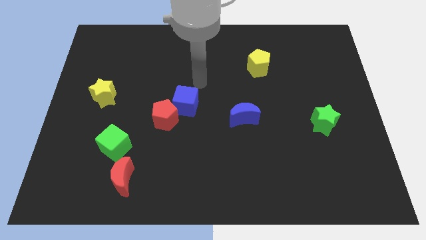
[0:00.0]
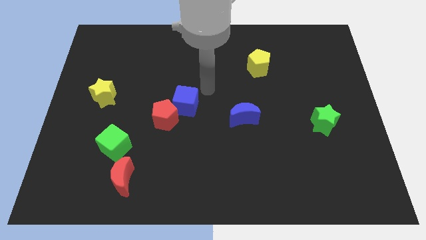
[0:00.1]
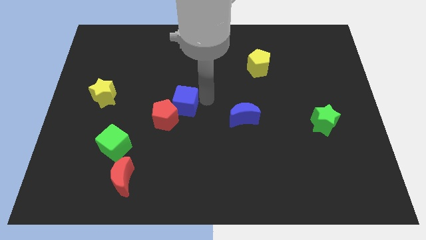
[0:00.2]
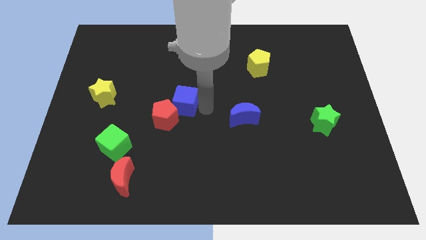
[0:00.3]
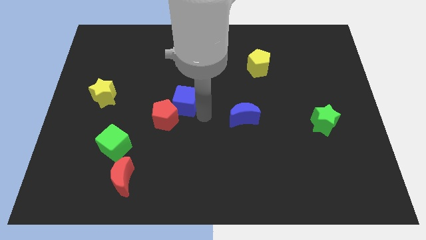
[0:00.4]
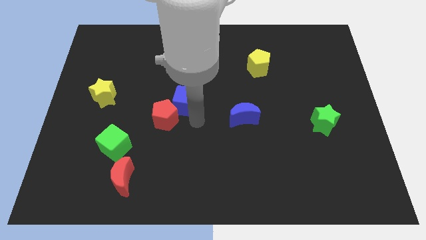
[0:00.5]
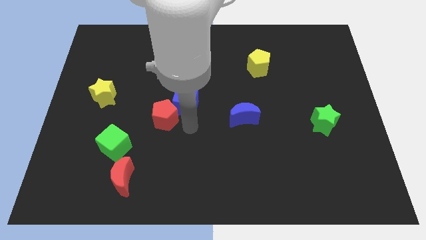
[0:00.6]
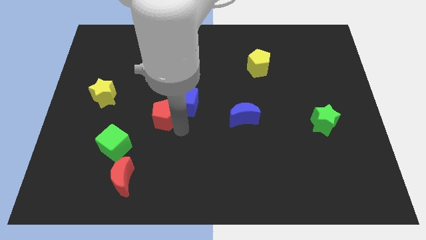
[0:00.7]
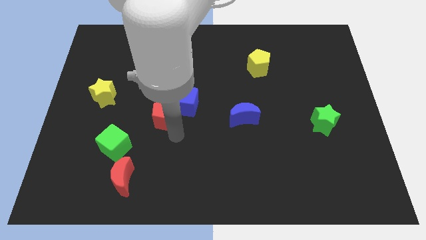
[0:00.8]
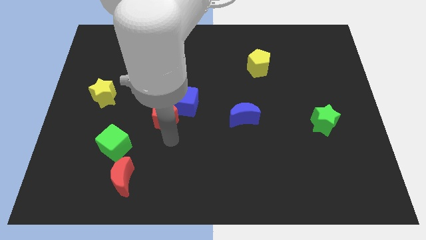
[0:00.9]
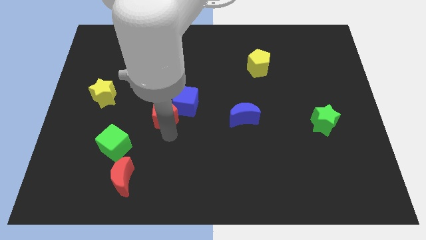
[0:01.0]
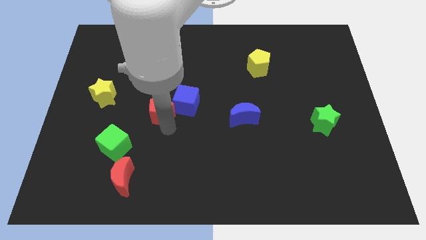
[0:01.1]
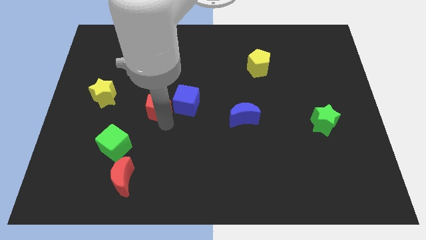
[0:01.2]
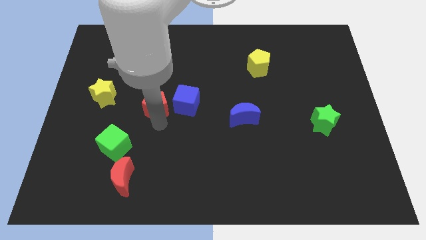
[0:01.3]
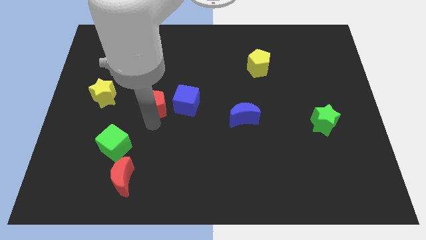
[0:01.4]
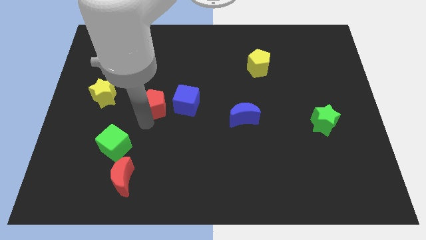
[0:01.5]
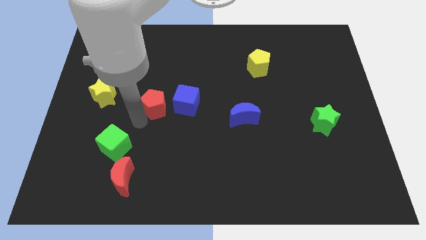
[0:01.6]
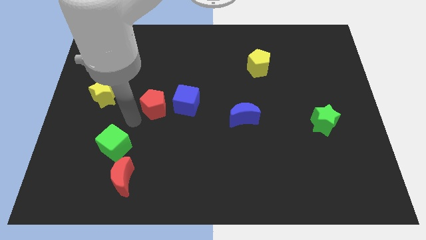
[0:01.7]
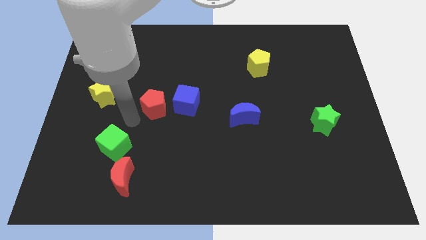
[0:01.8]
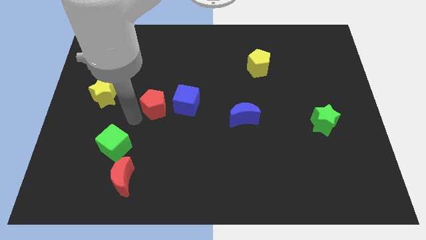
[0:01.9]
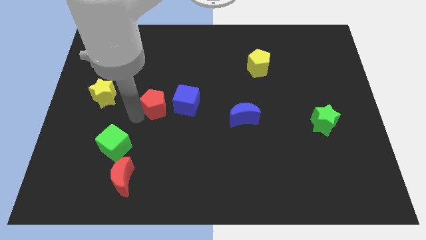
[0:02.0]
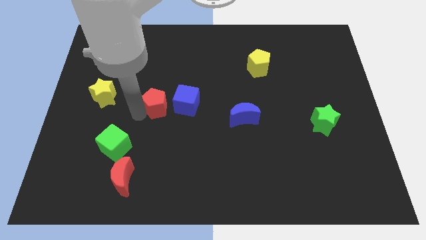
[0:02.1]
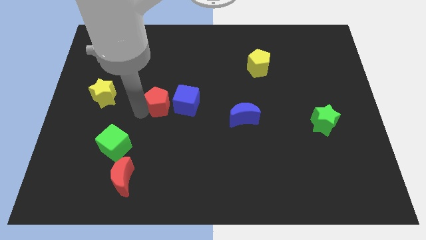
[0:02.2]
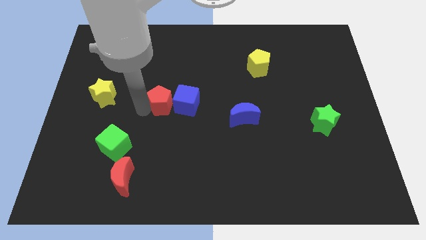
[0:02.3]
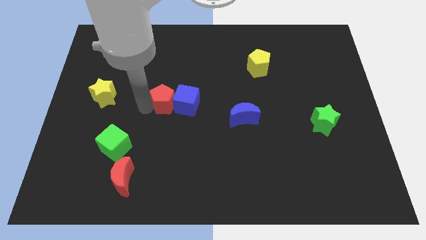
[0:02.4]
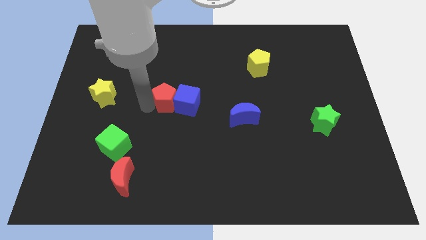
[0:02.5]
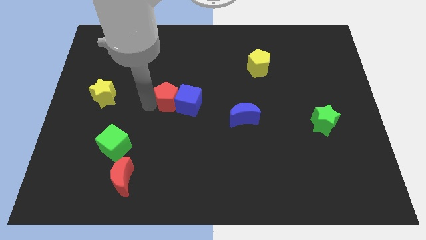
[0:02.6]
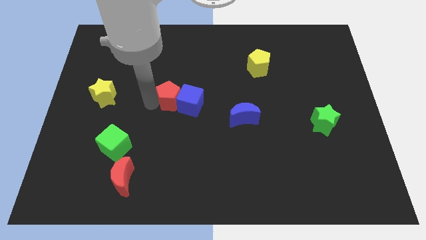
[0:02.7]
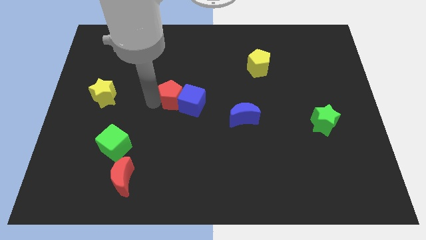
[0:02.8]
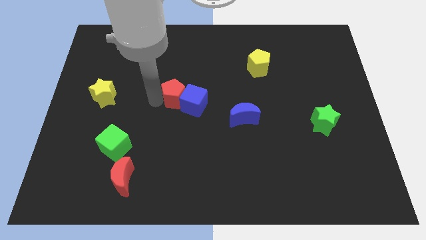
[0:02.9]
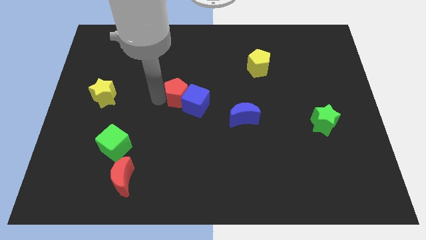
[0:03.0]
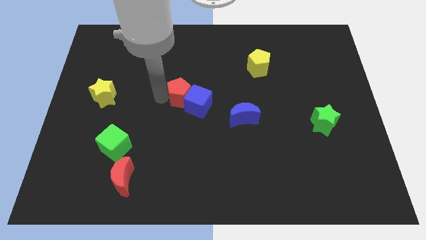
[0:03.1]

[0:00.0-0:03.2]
slightly slide the red pentagon diagonally up and right

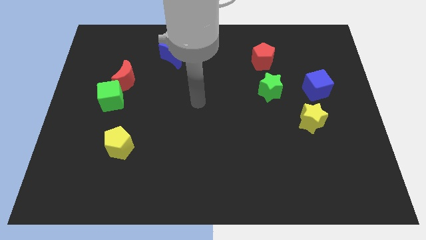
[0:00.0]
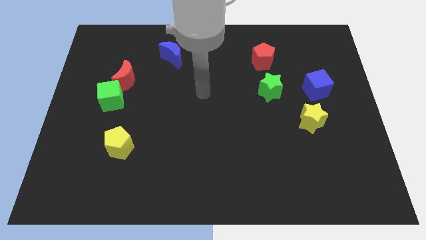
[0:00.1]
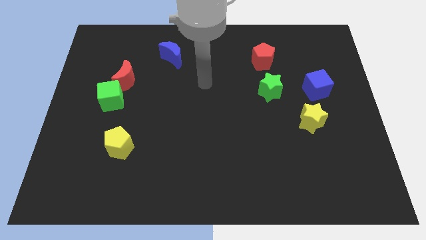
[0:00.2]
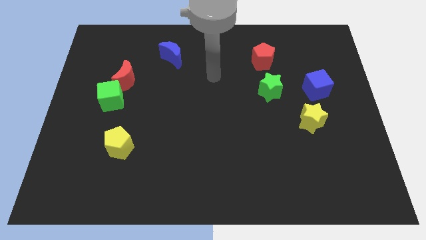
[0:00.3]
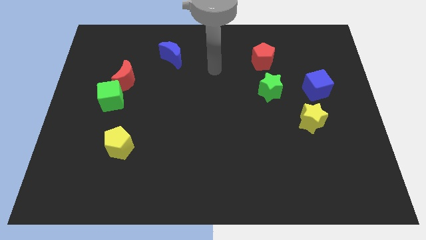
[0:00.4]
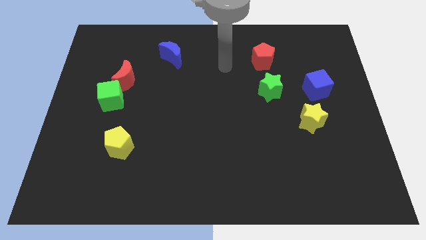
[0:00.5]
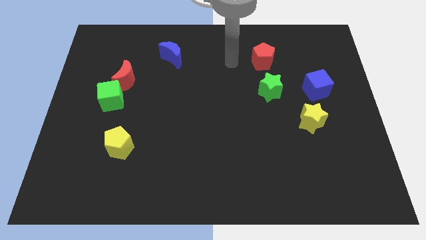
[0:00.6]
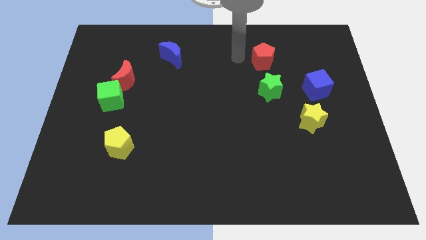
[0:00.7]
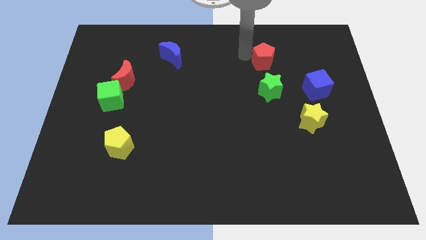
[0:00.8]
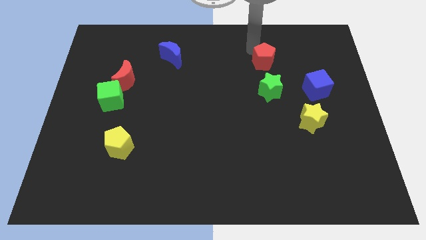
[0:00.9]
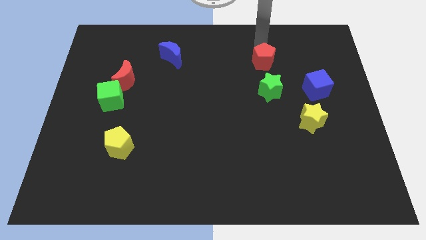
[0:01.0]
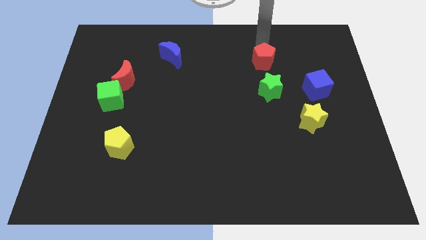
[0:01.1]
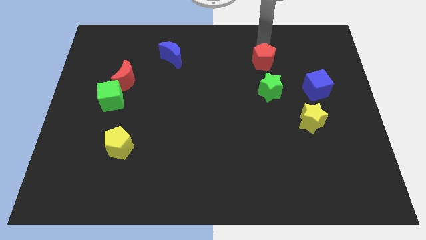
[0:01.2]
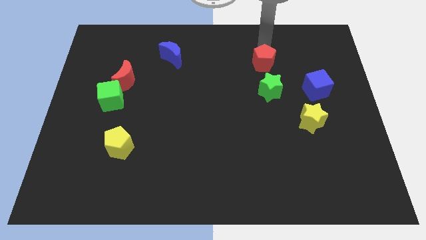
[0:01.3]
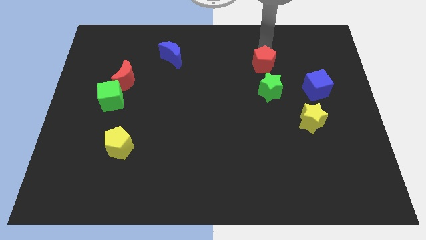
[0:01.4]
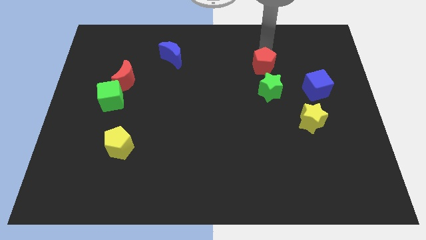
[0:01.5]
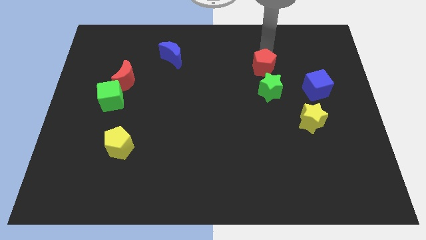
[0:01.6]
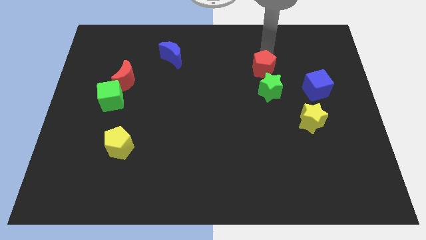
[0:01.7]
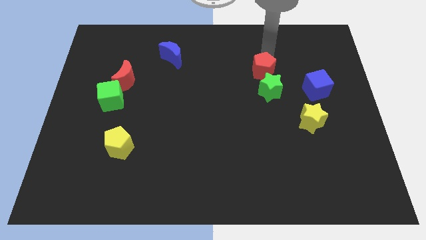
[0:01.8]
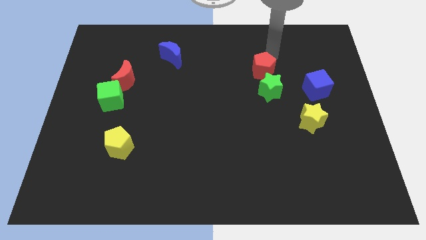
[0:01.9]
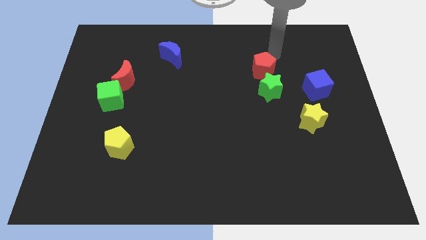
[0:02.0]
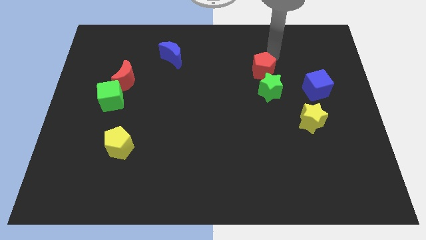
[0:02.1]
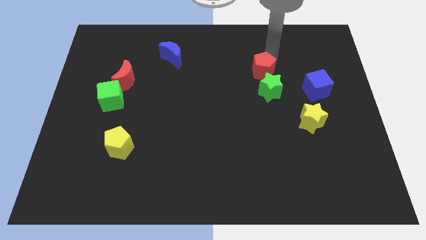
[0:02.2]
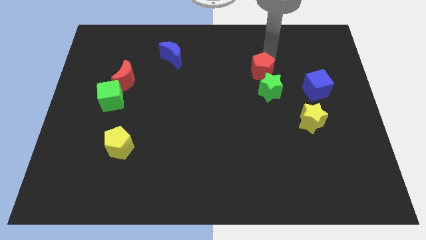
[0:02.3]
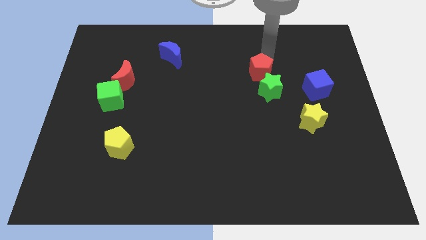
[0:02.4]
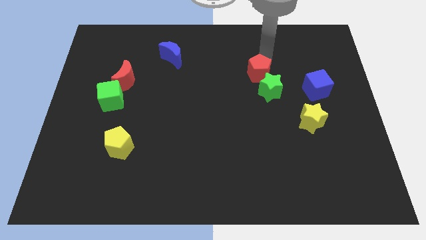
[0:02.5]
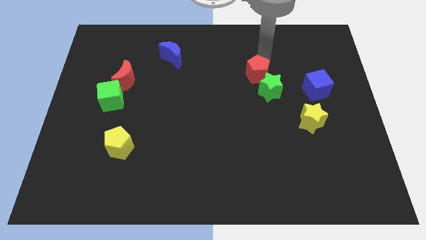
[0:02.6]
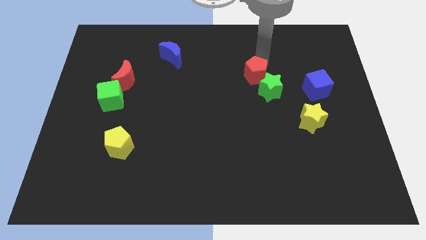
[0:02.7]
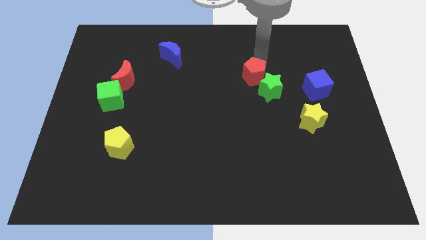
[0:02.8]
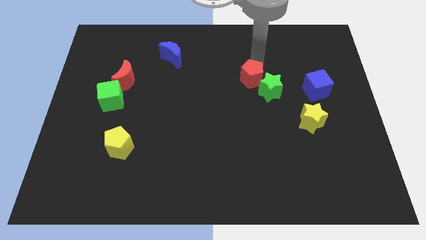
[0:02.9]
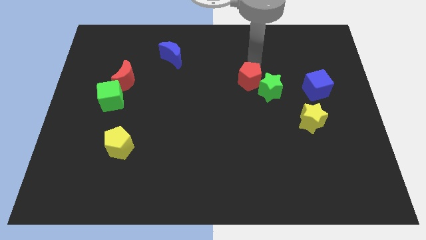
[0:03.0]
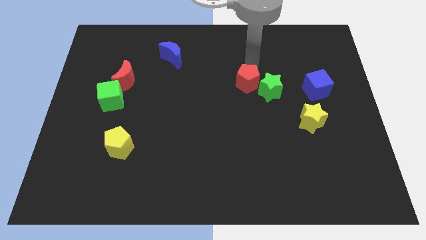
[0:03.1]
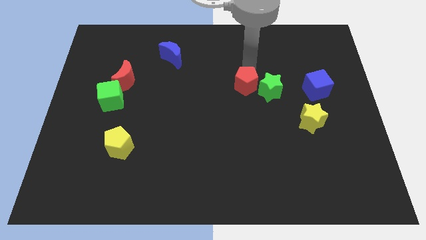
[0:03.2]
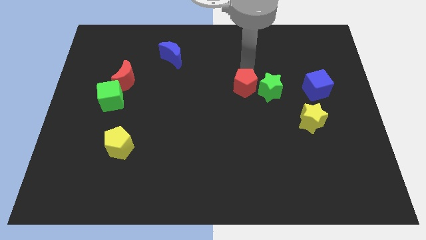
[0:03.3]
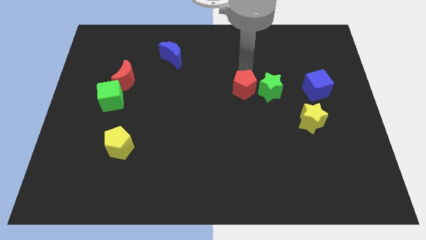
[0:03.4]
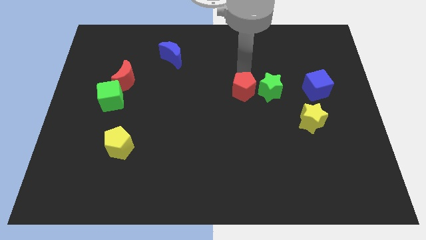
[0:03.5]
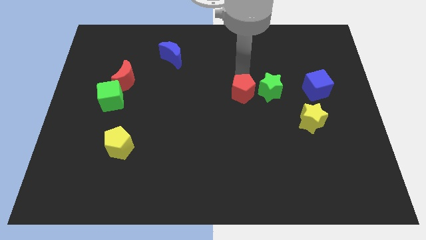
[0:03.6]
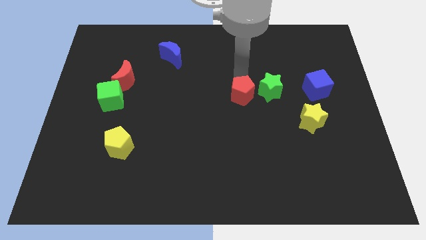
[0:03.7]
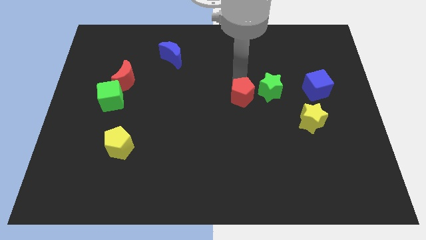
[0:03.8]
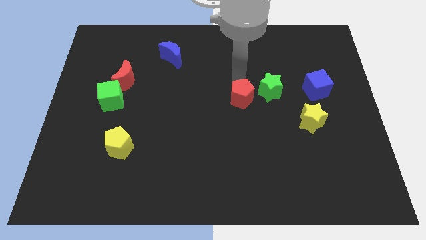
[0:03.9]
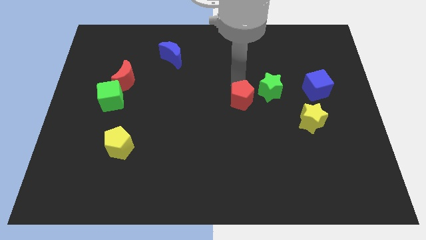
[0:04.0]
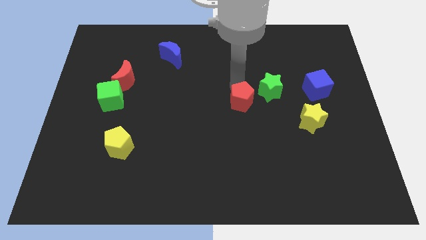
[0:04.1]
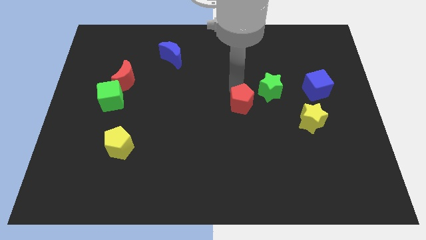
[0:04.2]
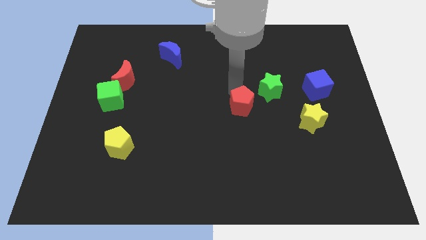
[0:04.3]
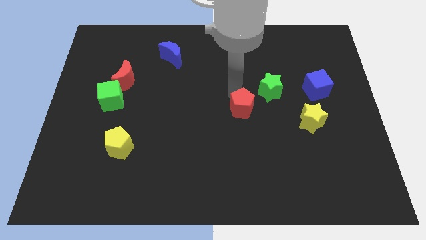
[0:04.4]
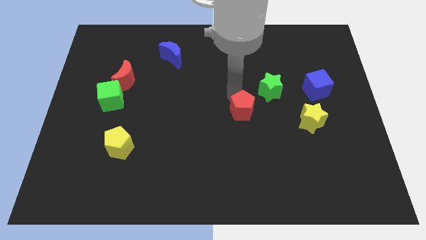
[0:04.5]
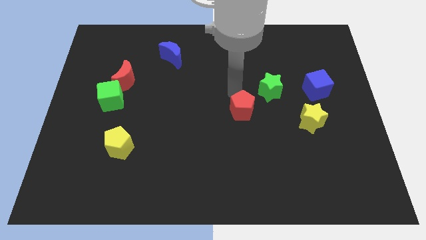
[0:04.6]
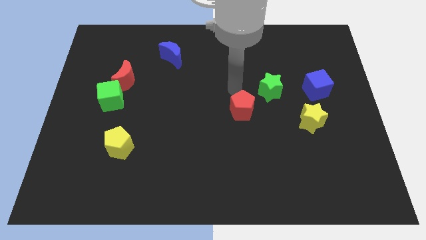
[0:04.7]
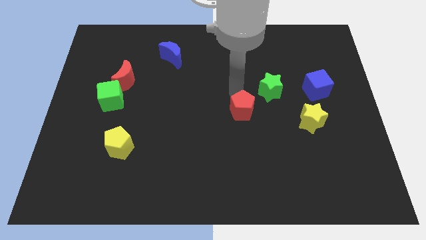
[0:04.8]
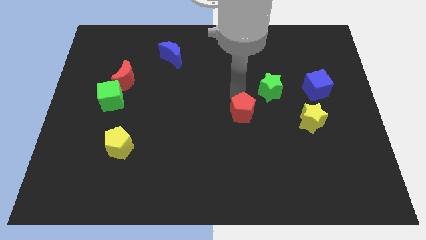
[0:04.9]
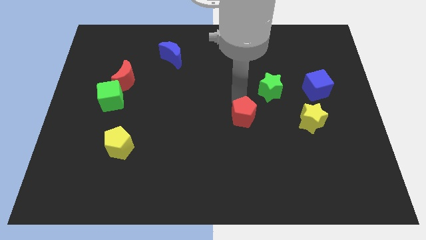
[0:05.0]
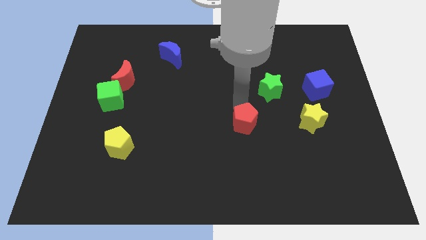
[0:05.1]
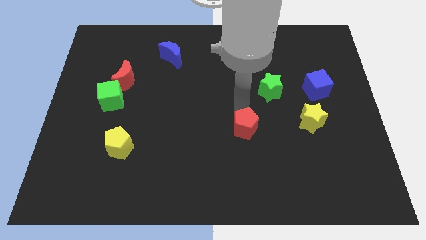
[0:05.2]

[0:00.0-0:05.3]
push the red pentagon down
